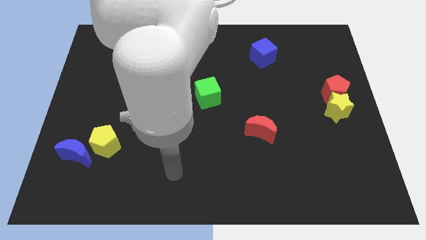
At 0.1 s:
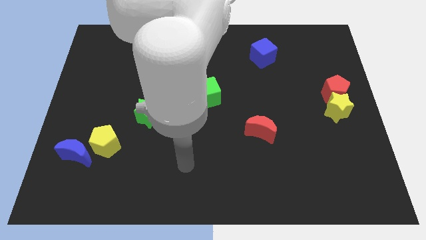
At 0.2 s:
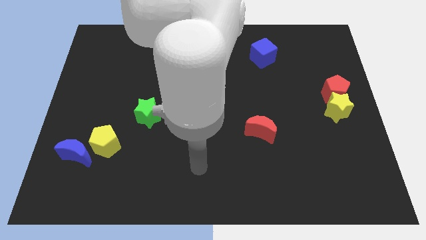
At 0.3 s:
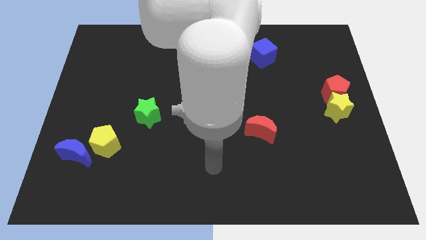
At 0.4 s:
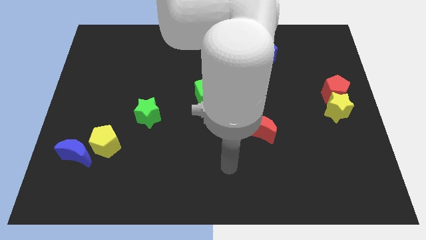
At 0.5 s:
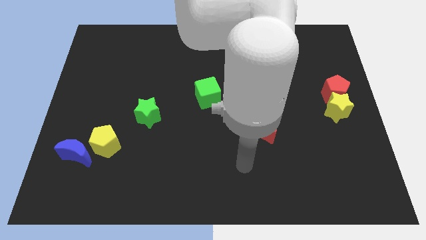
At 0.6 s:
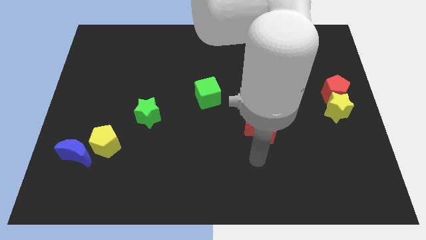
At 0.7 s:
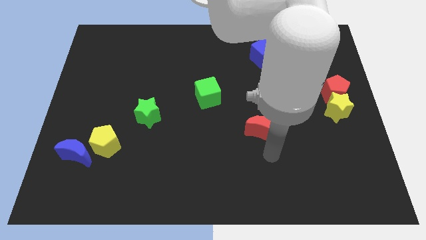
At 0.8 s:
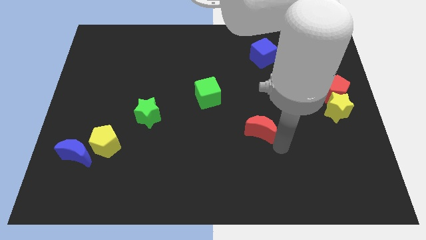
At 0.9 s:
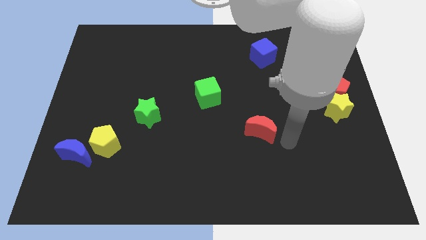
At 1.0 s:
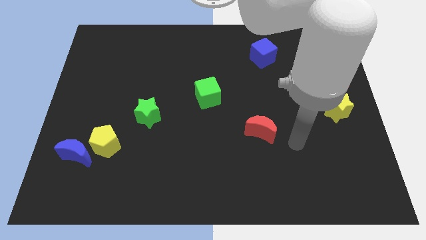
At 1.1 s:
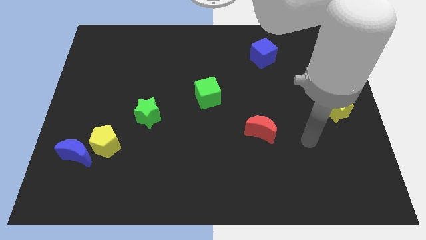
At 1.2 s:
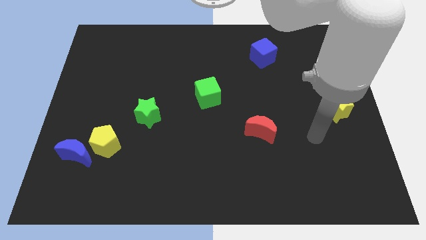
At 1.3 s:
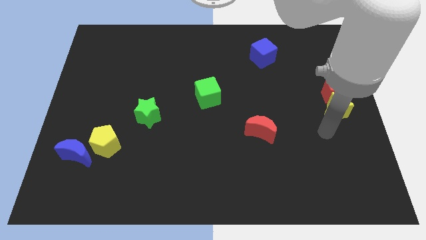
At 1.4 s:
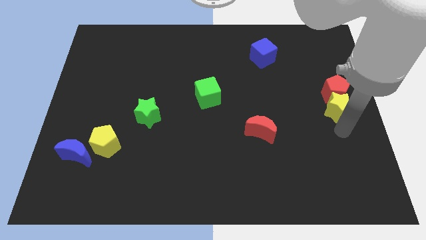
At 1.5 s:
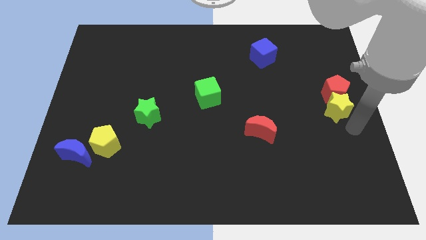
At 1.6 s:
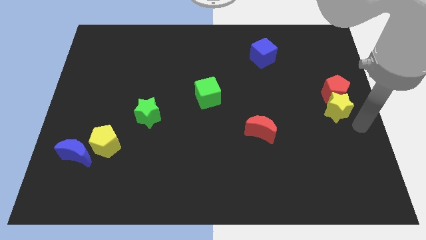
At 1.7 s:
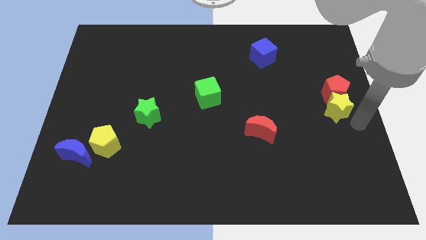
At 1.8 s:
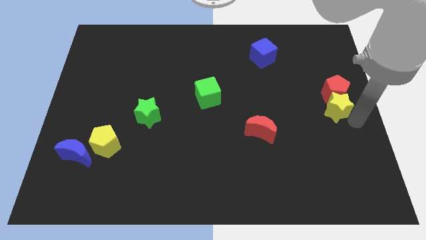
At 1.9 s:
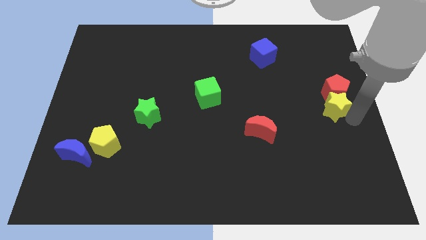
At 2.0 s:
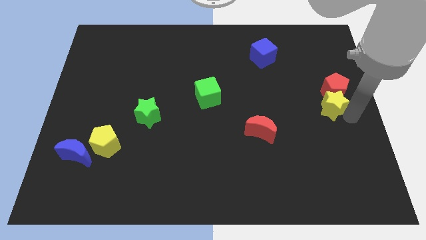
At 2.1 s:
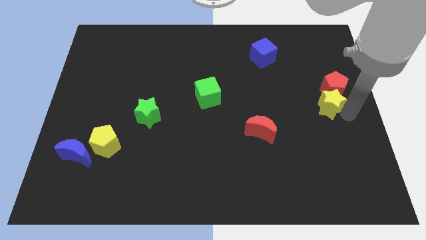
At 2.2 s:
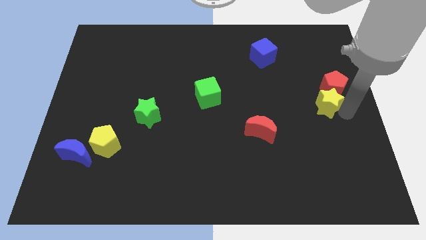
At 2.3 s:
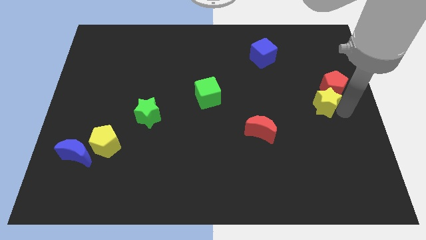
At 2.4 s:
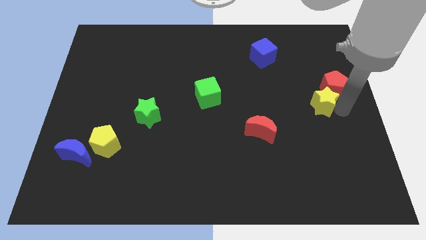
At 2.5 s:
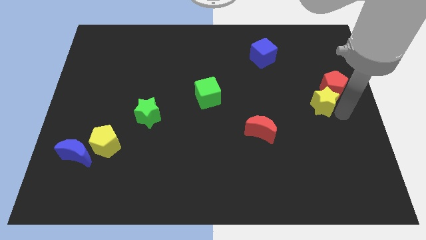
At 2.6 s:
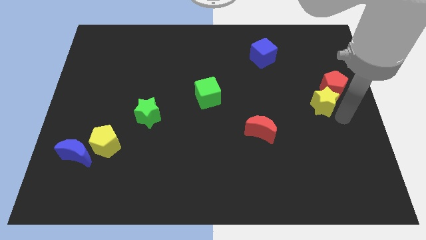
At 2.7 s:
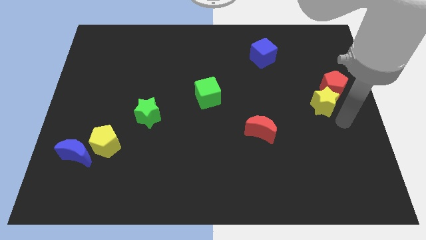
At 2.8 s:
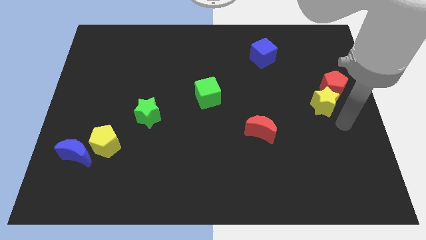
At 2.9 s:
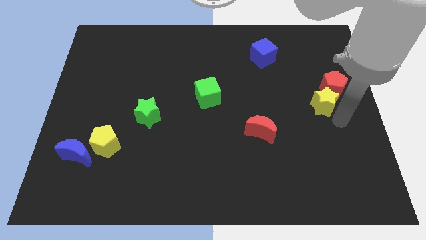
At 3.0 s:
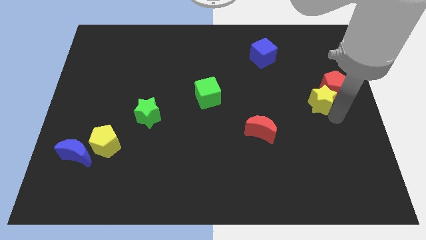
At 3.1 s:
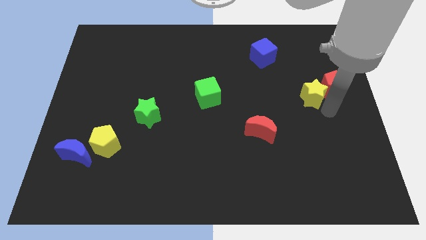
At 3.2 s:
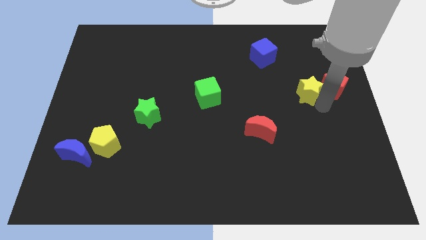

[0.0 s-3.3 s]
slightly push the yellow star diagonally up and left

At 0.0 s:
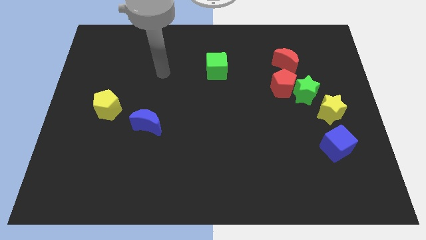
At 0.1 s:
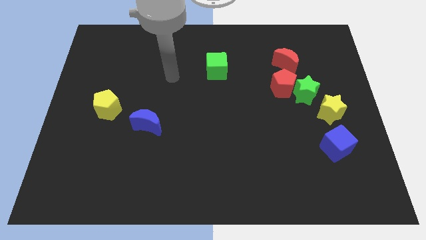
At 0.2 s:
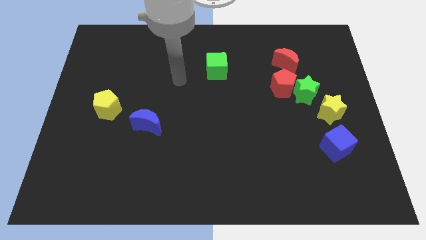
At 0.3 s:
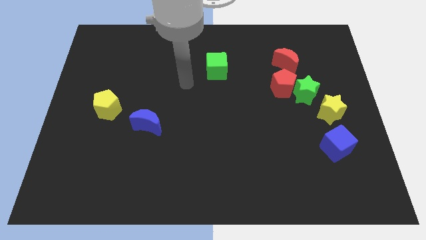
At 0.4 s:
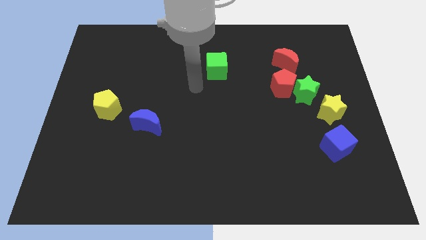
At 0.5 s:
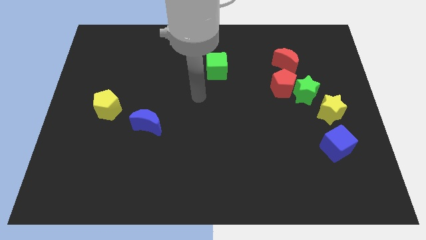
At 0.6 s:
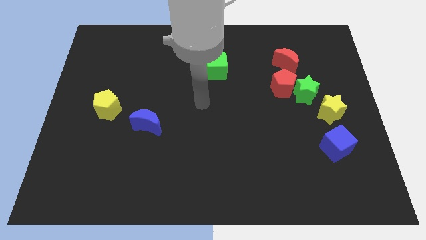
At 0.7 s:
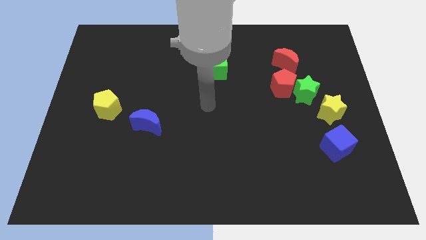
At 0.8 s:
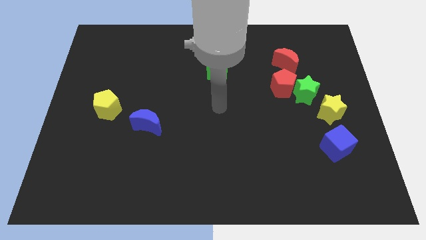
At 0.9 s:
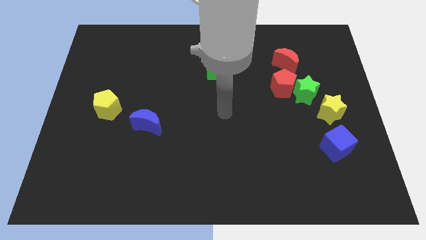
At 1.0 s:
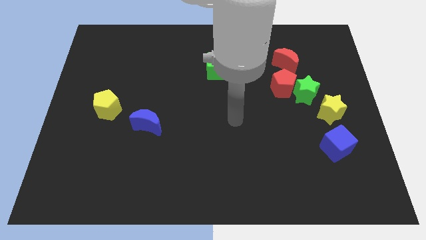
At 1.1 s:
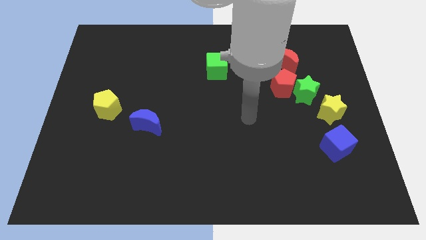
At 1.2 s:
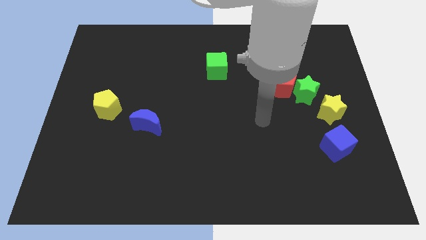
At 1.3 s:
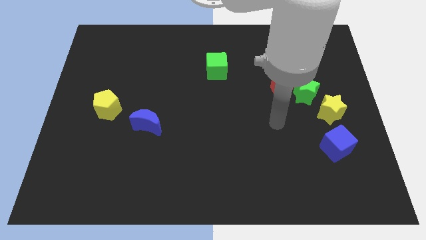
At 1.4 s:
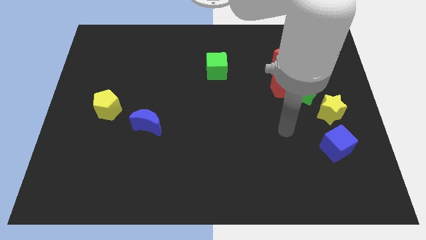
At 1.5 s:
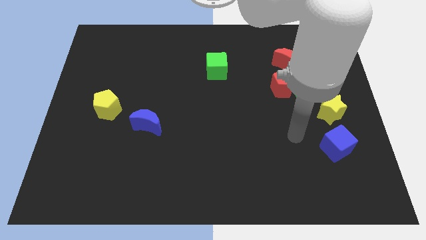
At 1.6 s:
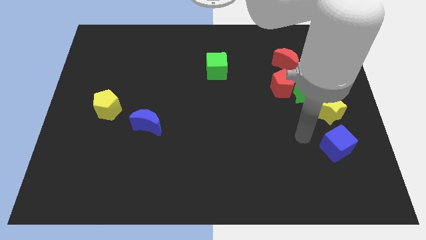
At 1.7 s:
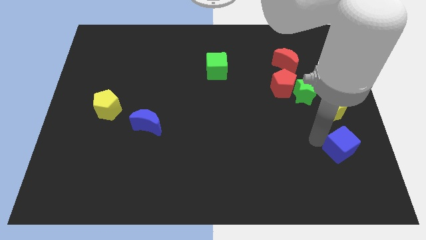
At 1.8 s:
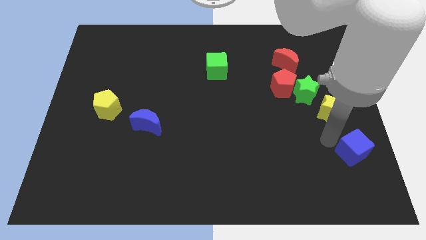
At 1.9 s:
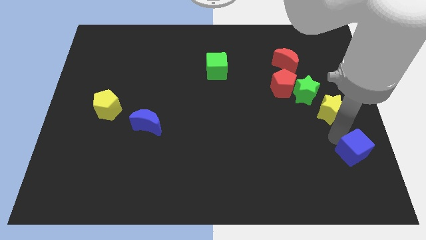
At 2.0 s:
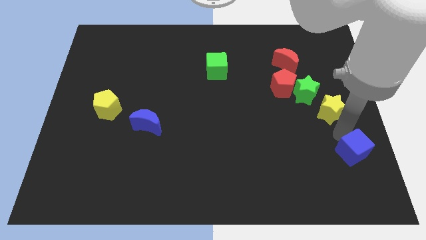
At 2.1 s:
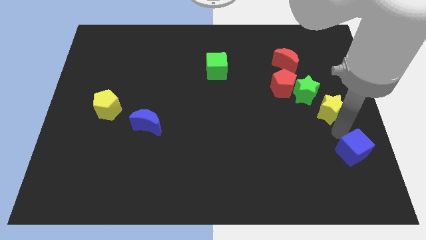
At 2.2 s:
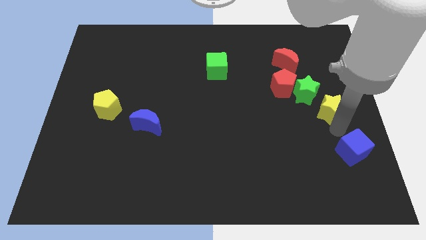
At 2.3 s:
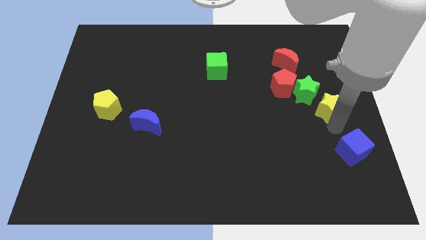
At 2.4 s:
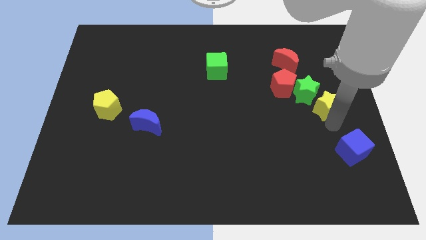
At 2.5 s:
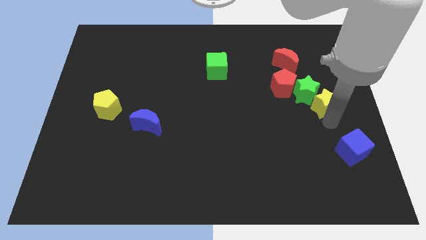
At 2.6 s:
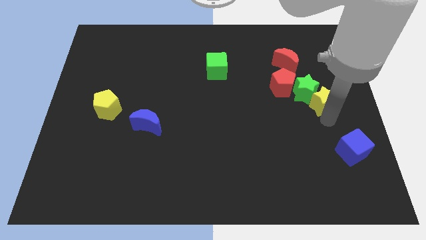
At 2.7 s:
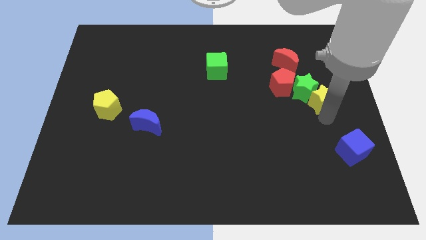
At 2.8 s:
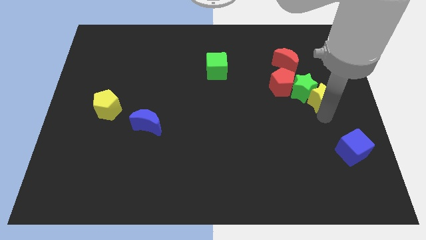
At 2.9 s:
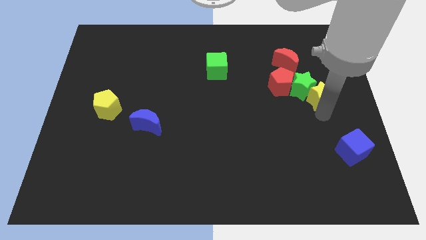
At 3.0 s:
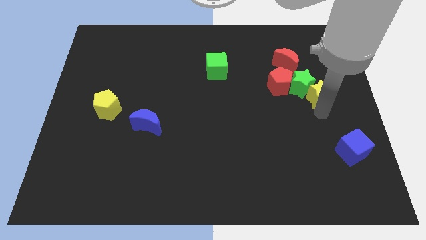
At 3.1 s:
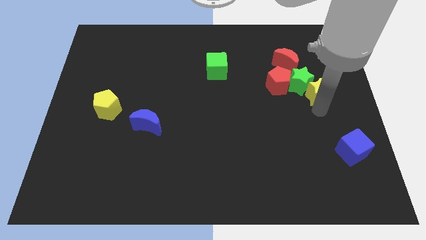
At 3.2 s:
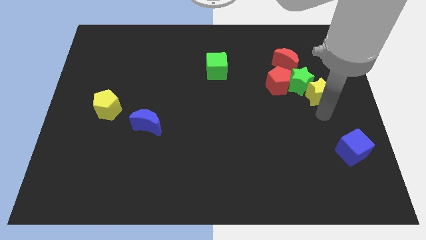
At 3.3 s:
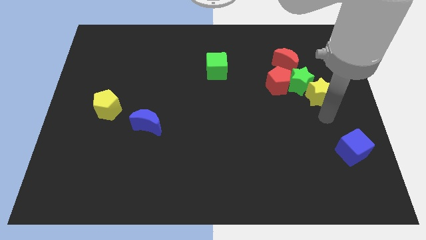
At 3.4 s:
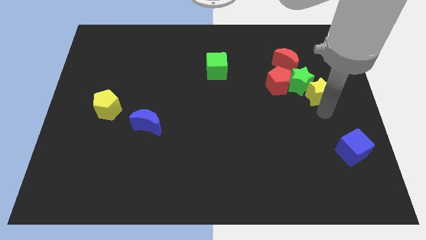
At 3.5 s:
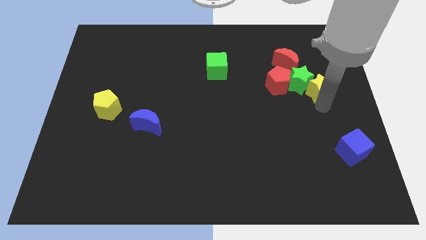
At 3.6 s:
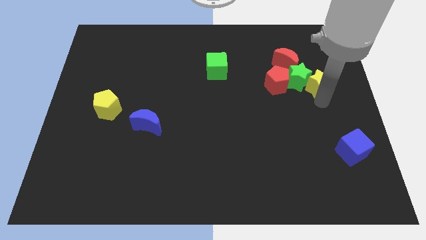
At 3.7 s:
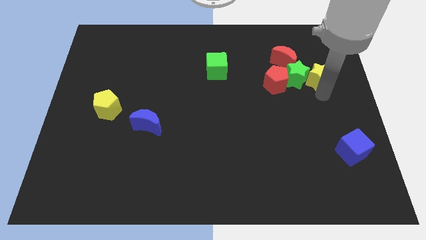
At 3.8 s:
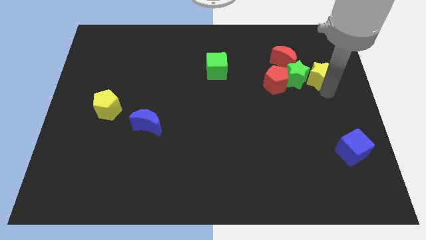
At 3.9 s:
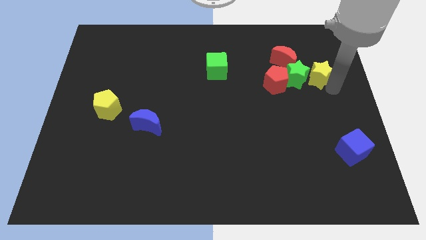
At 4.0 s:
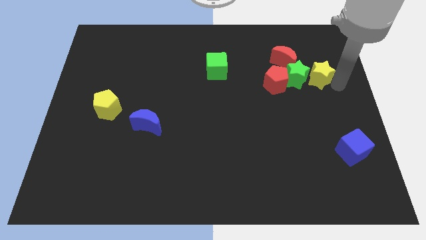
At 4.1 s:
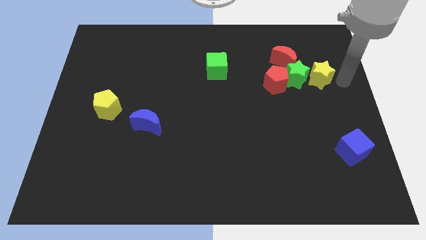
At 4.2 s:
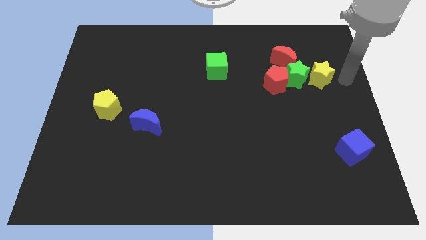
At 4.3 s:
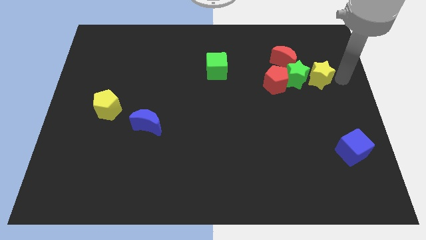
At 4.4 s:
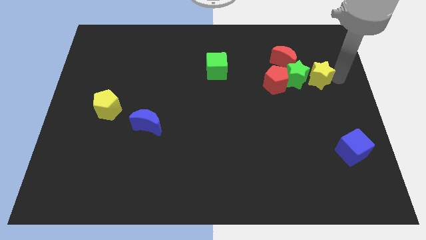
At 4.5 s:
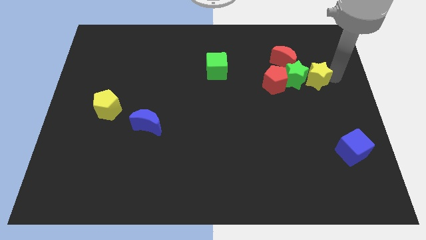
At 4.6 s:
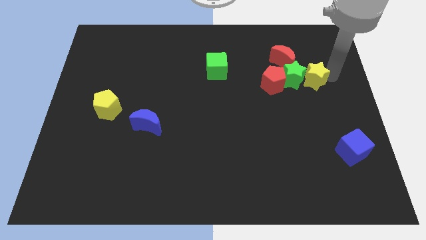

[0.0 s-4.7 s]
slide the yellow star up and to the left a little

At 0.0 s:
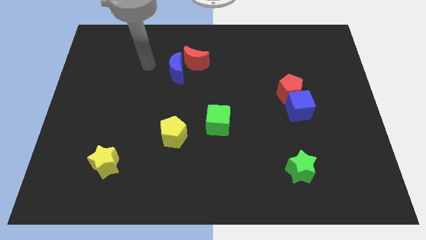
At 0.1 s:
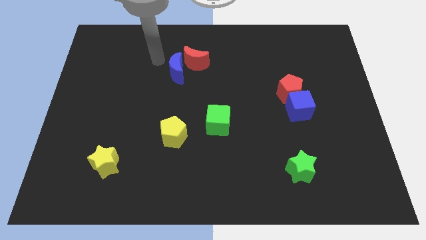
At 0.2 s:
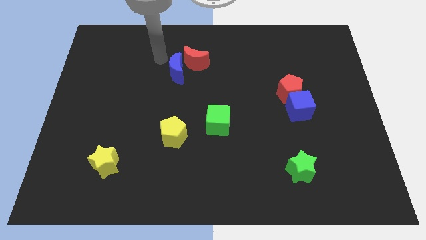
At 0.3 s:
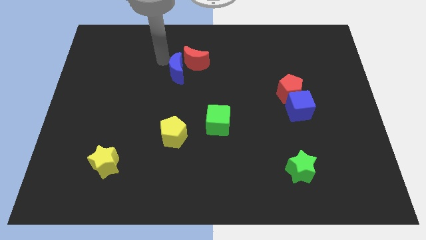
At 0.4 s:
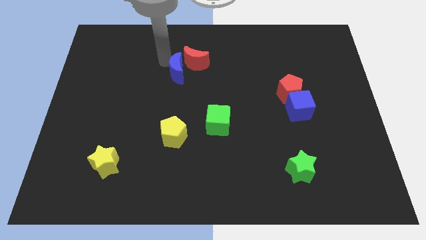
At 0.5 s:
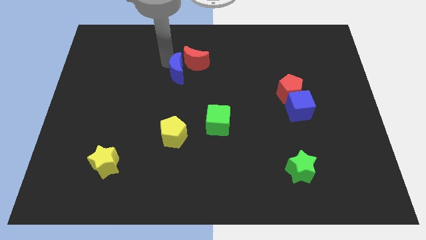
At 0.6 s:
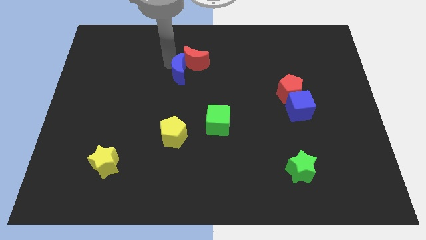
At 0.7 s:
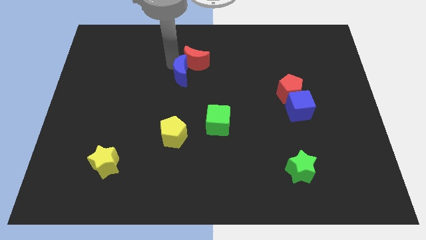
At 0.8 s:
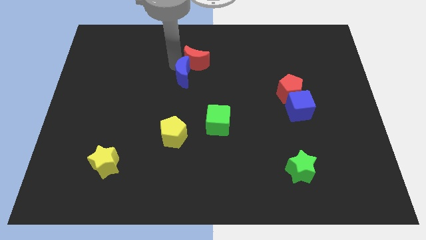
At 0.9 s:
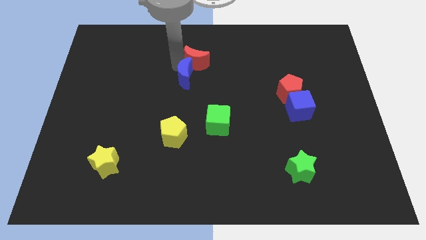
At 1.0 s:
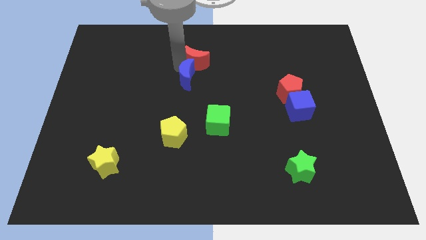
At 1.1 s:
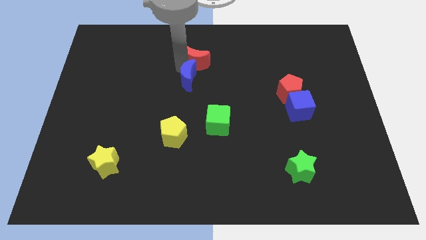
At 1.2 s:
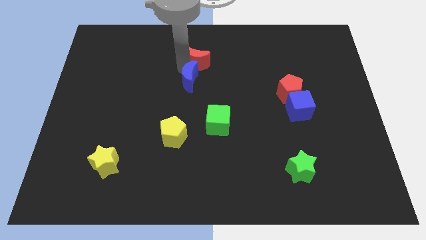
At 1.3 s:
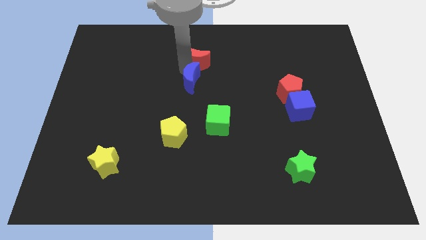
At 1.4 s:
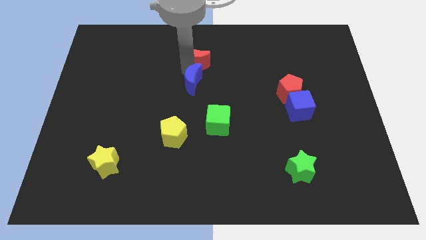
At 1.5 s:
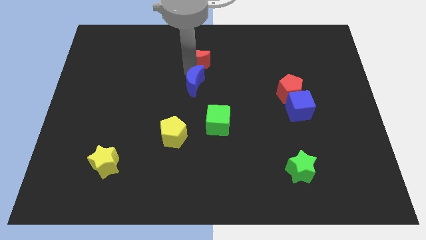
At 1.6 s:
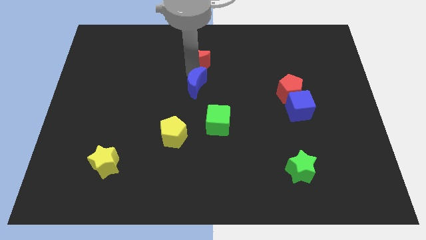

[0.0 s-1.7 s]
slide the blue moon downwards and to the right a little bit
